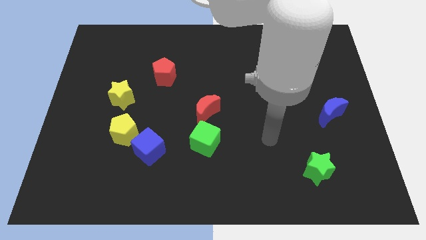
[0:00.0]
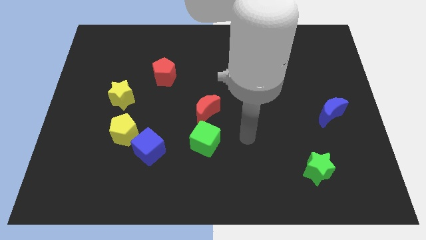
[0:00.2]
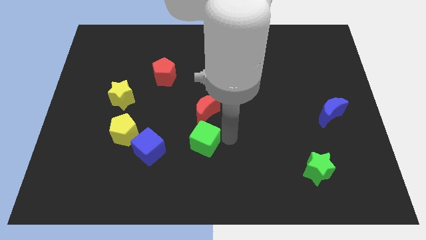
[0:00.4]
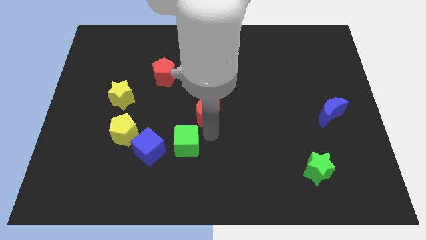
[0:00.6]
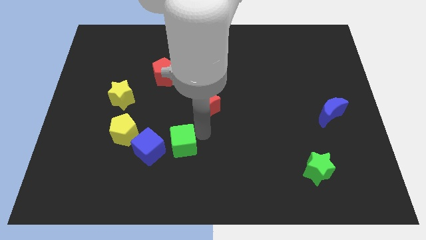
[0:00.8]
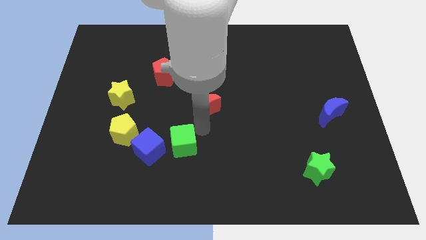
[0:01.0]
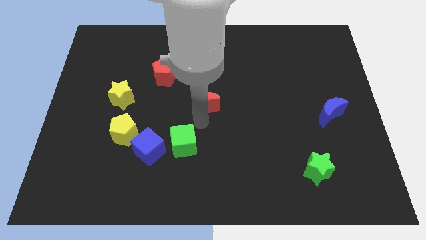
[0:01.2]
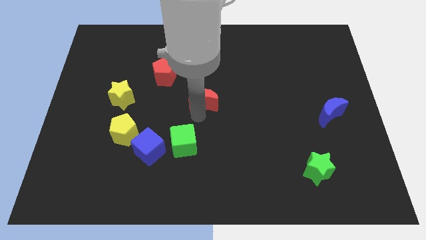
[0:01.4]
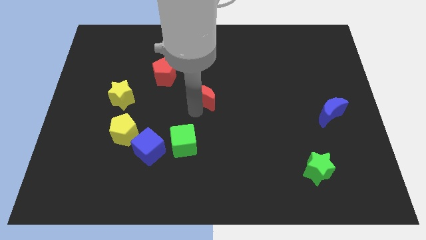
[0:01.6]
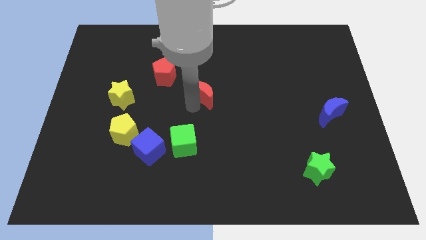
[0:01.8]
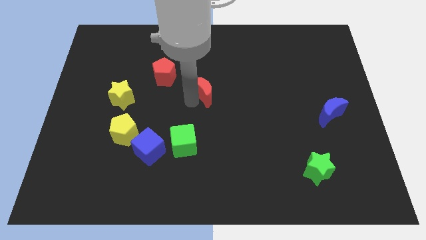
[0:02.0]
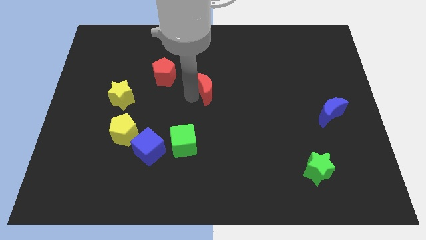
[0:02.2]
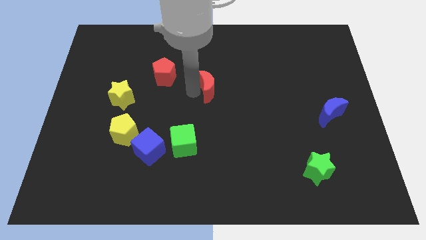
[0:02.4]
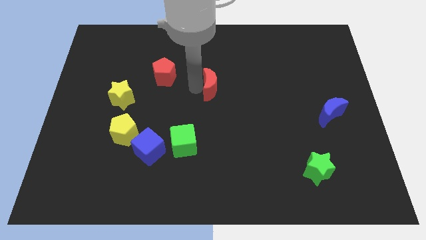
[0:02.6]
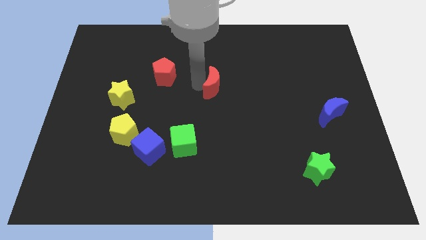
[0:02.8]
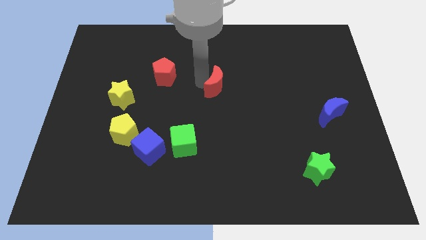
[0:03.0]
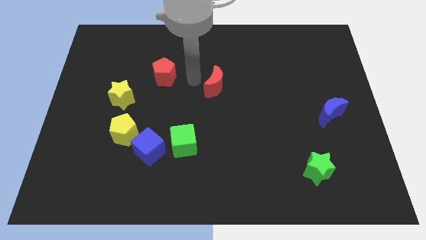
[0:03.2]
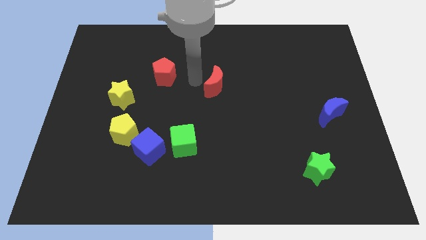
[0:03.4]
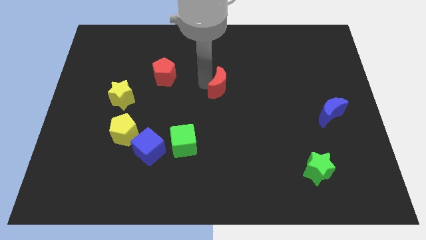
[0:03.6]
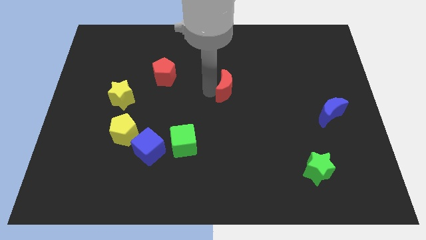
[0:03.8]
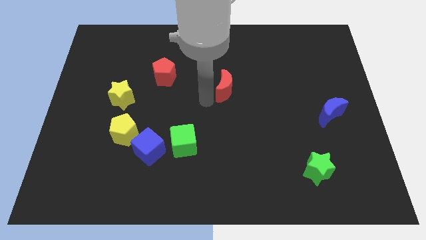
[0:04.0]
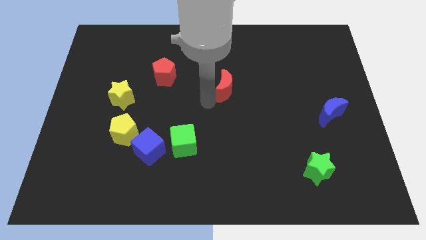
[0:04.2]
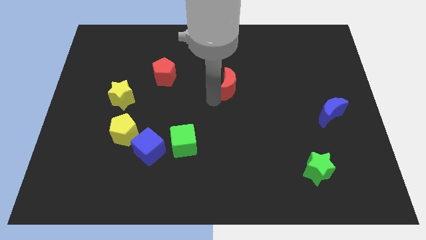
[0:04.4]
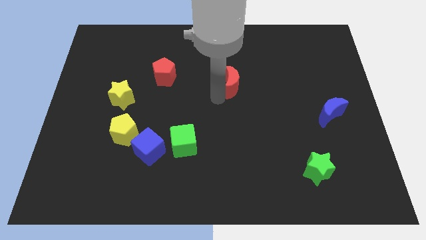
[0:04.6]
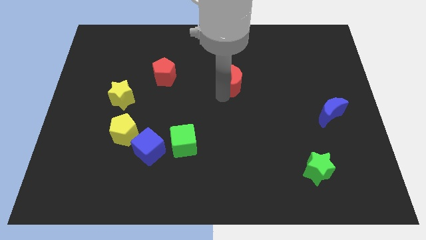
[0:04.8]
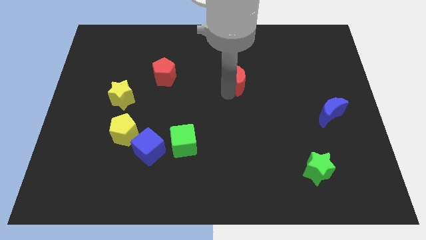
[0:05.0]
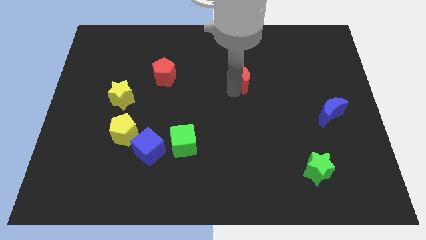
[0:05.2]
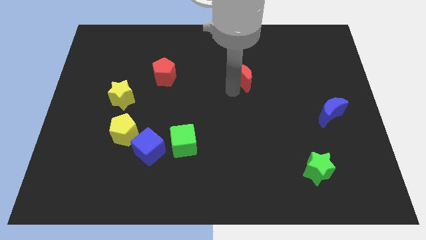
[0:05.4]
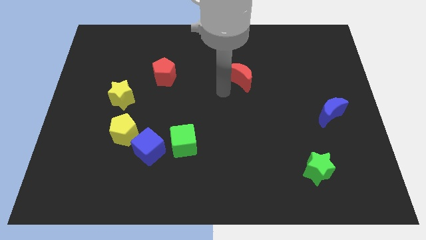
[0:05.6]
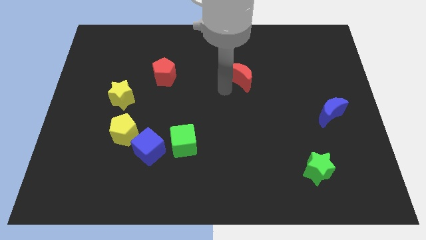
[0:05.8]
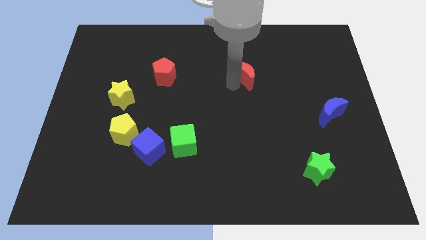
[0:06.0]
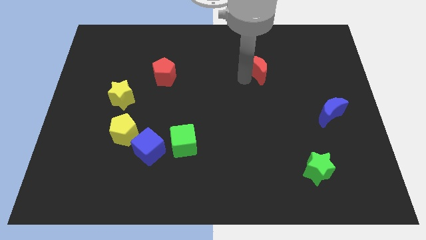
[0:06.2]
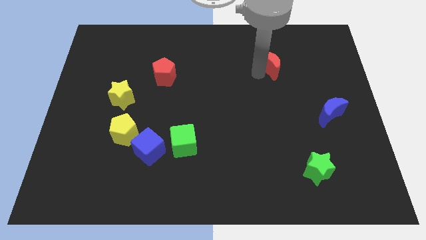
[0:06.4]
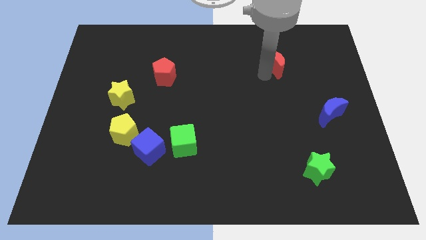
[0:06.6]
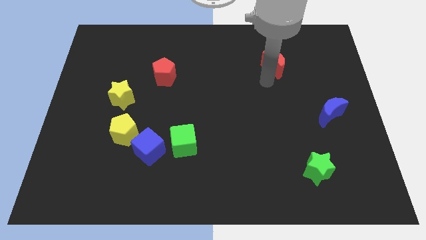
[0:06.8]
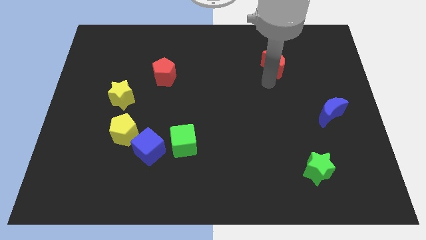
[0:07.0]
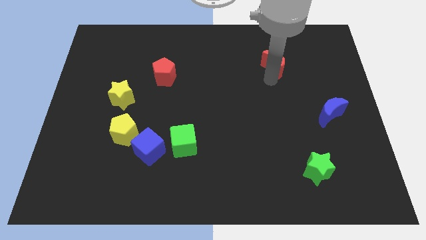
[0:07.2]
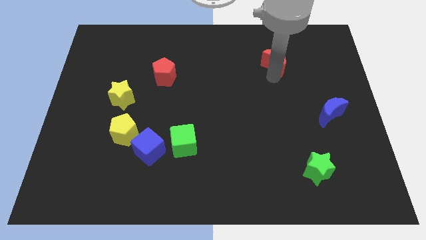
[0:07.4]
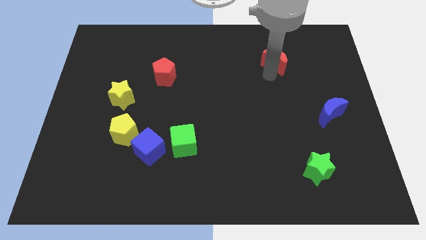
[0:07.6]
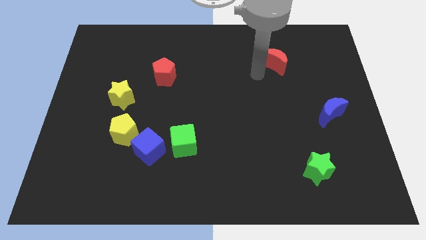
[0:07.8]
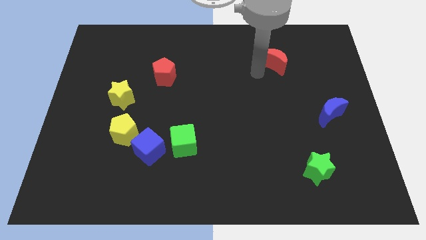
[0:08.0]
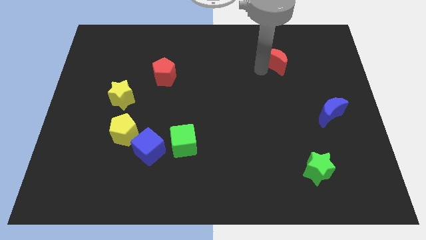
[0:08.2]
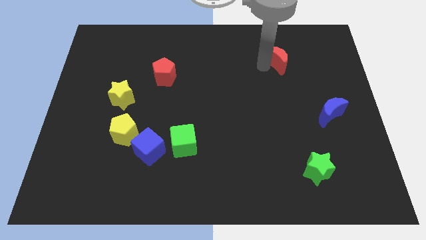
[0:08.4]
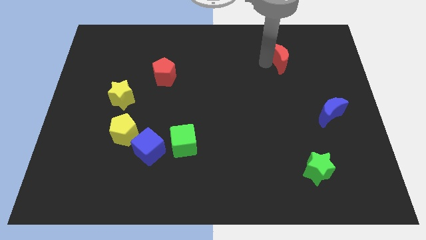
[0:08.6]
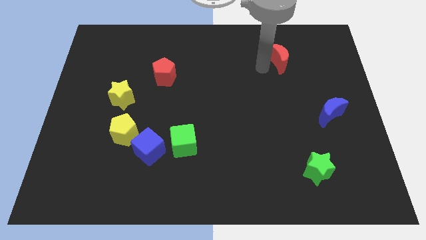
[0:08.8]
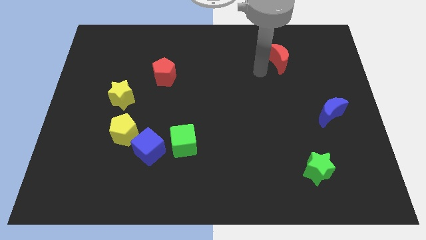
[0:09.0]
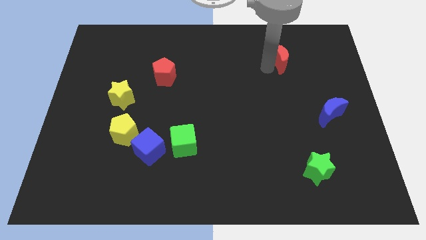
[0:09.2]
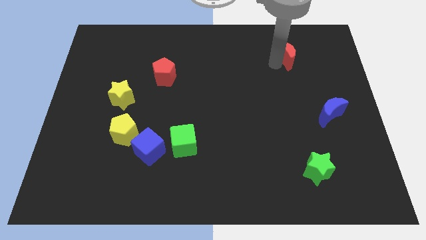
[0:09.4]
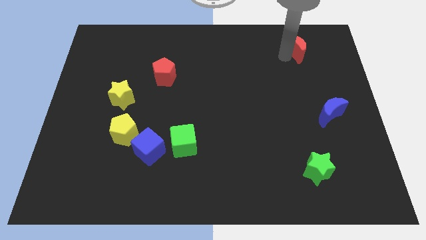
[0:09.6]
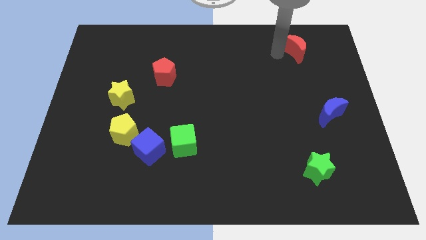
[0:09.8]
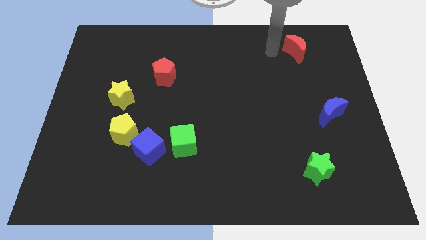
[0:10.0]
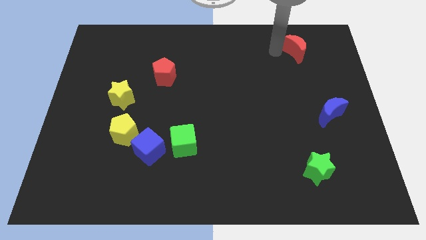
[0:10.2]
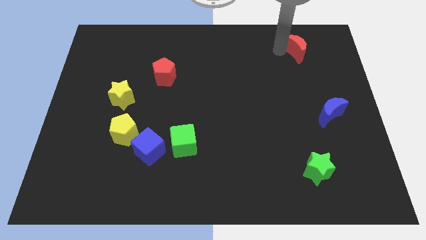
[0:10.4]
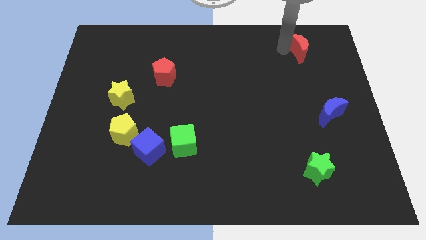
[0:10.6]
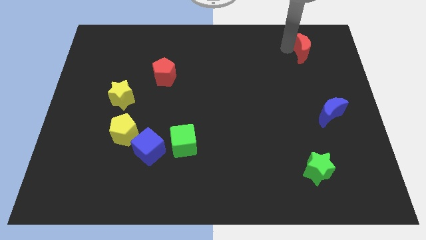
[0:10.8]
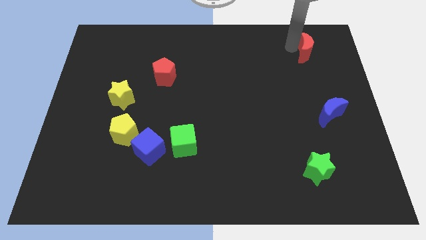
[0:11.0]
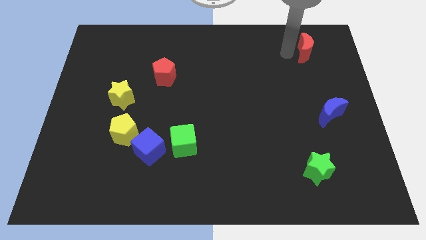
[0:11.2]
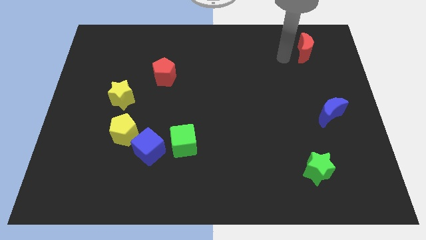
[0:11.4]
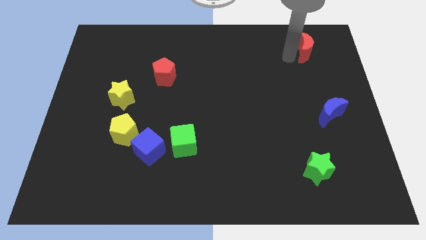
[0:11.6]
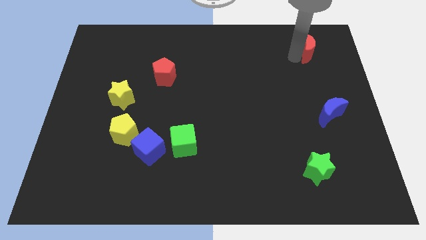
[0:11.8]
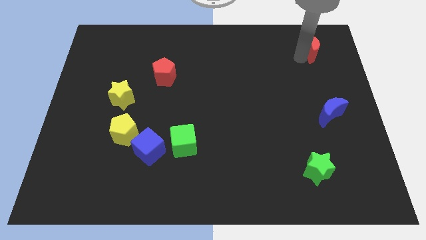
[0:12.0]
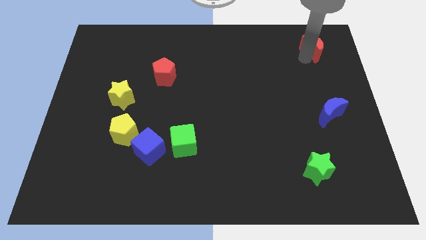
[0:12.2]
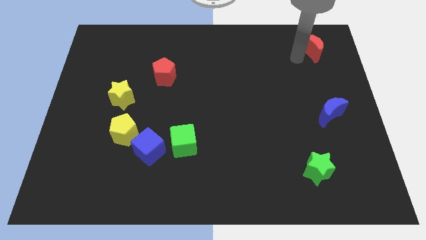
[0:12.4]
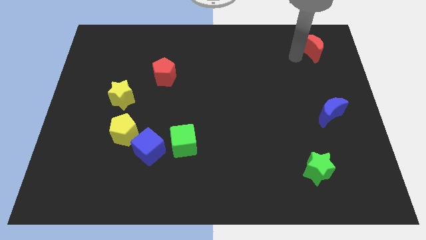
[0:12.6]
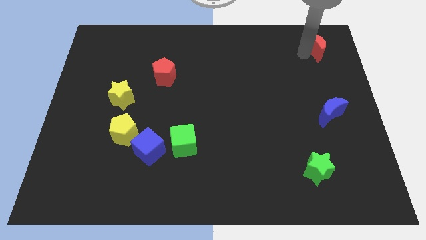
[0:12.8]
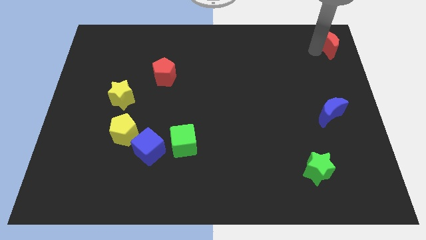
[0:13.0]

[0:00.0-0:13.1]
push the red moon to the top right of the board

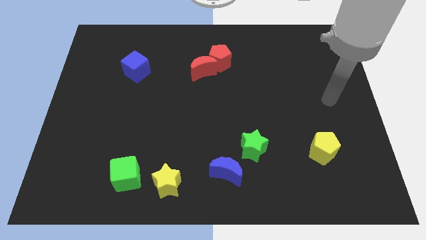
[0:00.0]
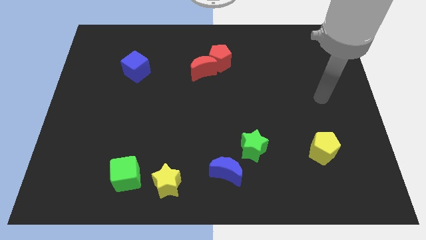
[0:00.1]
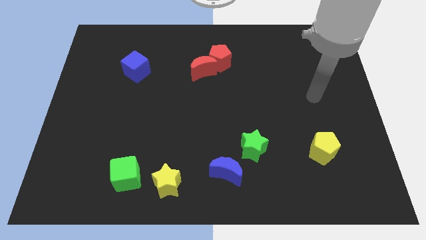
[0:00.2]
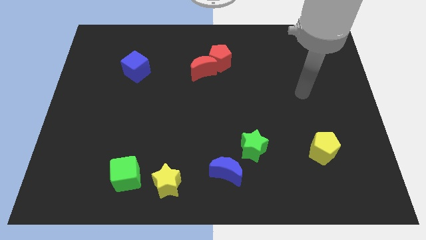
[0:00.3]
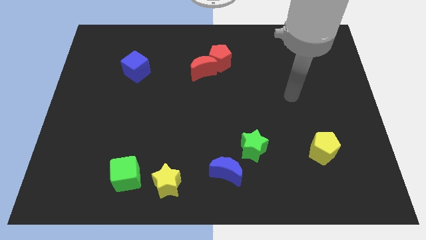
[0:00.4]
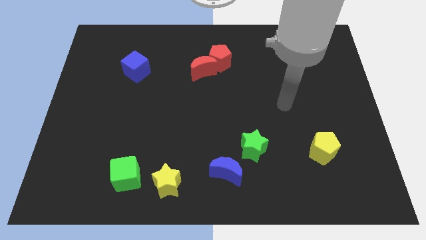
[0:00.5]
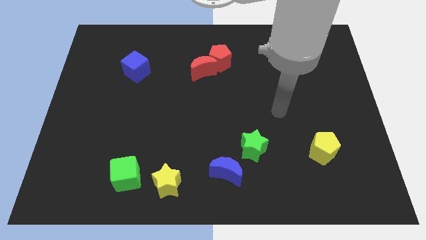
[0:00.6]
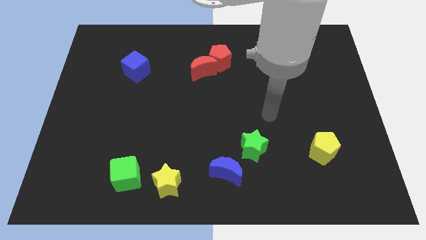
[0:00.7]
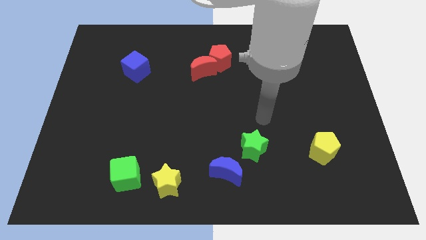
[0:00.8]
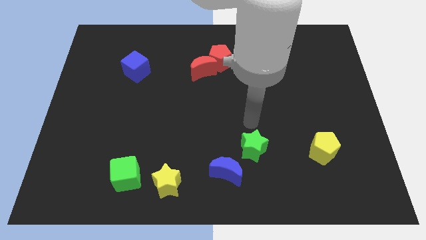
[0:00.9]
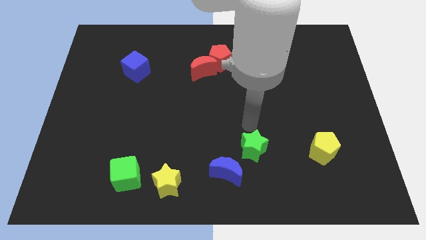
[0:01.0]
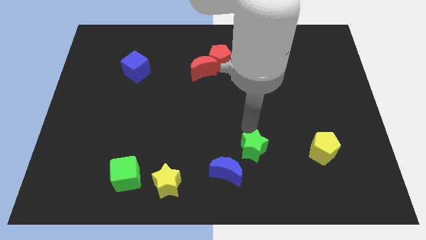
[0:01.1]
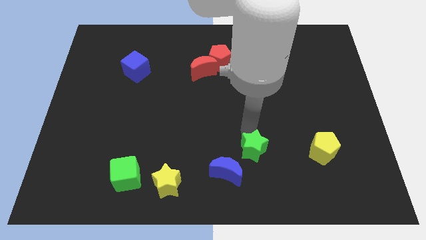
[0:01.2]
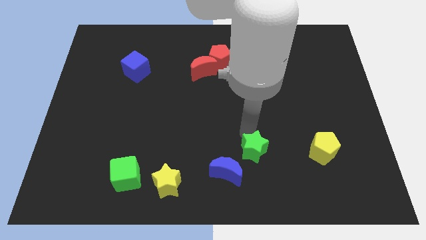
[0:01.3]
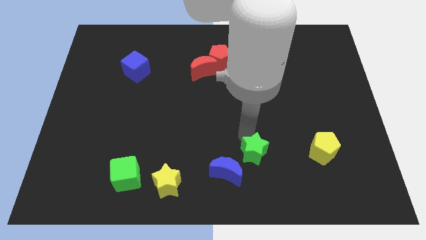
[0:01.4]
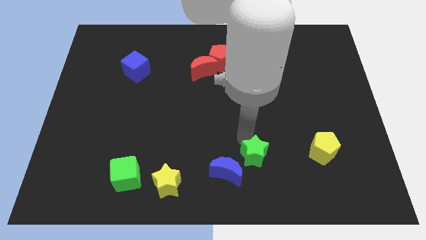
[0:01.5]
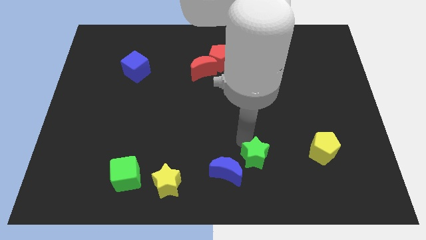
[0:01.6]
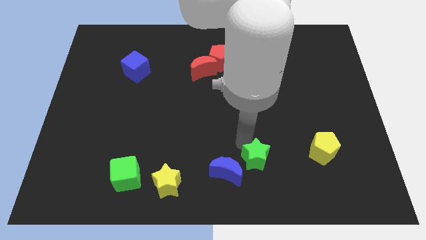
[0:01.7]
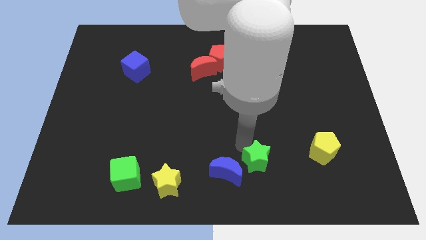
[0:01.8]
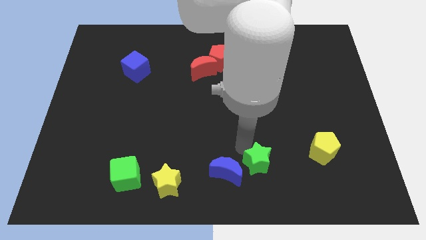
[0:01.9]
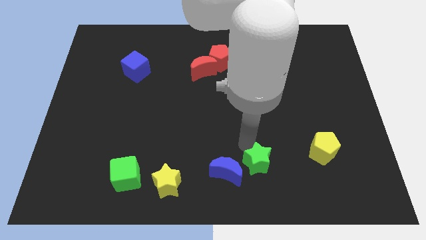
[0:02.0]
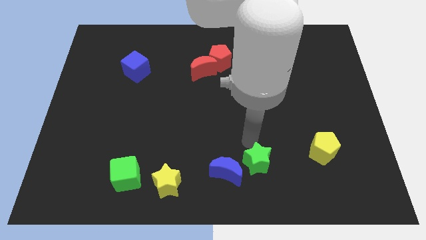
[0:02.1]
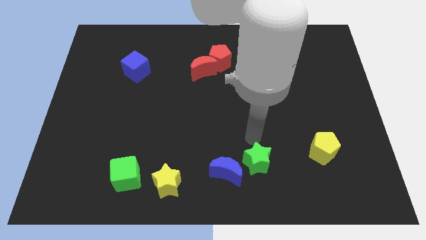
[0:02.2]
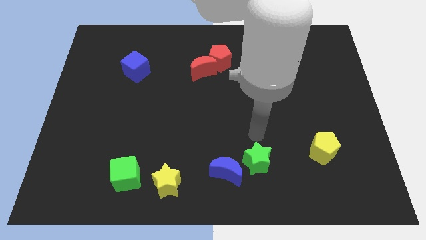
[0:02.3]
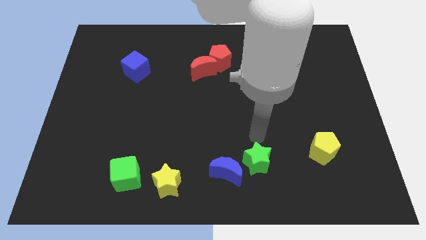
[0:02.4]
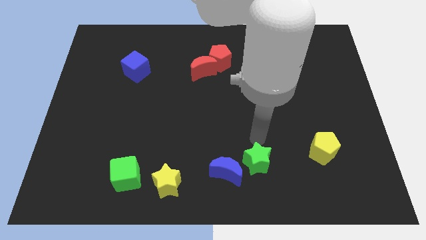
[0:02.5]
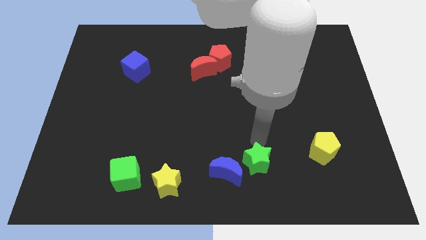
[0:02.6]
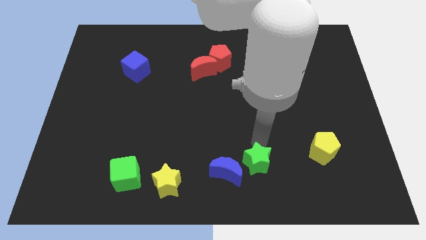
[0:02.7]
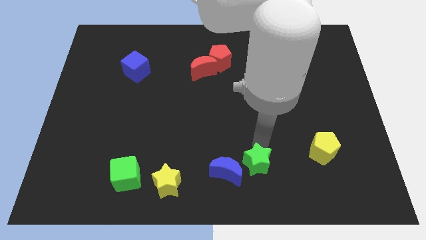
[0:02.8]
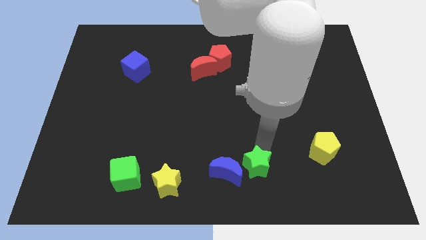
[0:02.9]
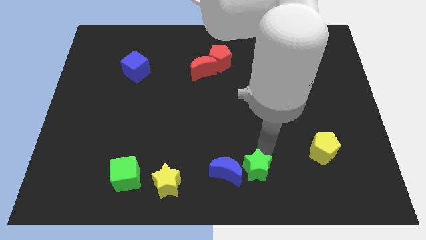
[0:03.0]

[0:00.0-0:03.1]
put the green star to the bottom side
